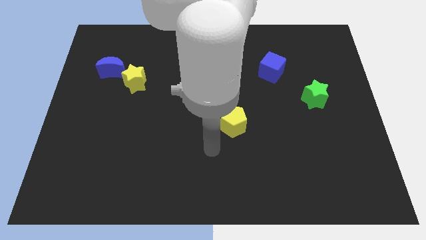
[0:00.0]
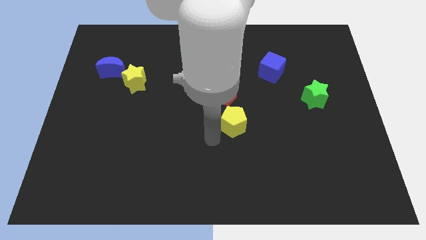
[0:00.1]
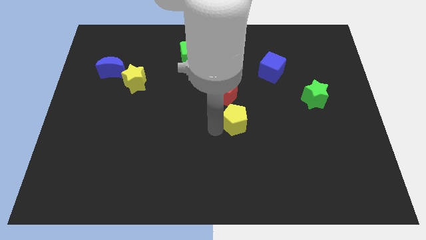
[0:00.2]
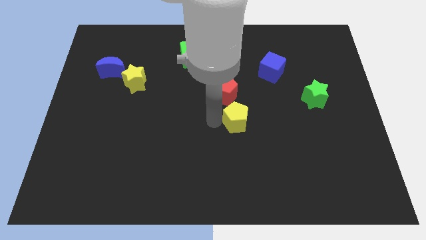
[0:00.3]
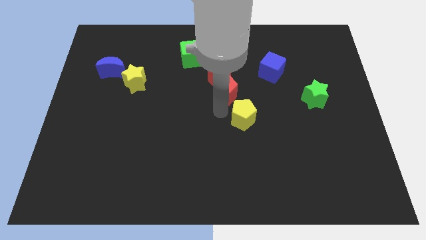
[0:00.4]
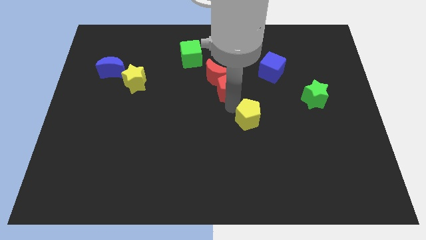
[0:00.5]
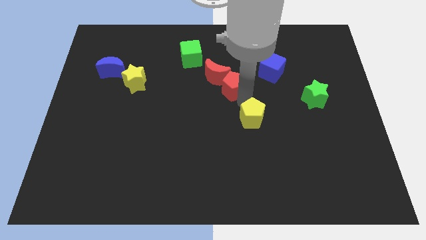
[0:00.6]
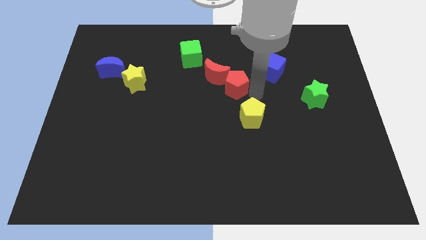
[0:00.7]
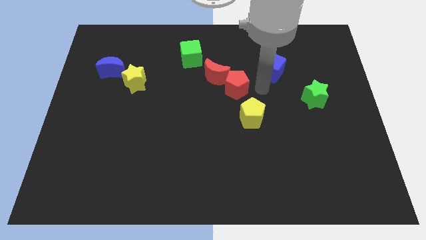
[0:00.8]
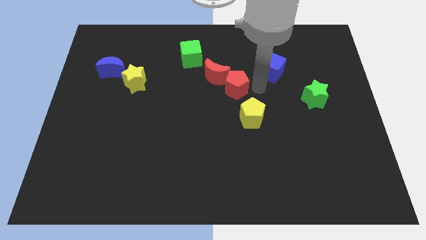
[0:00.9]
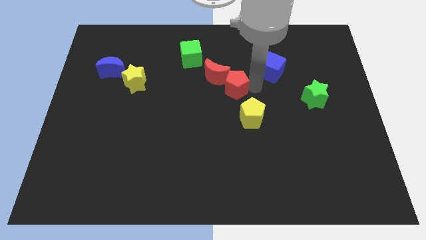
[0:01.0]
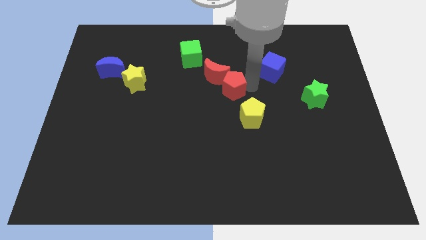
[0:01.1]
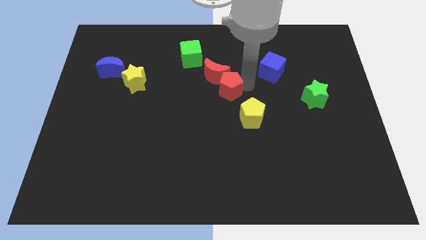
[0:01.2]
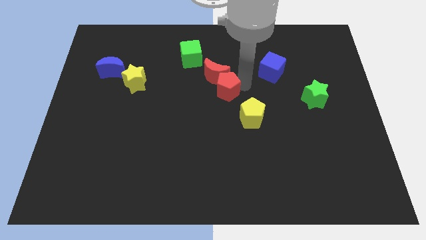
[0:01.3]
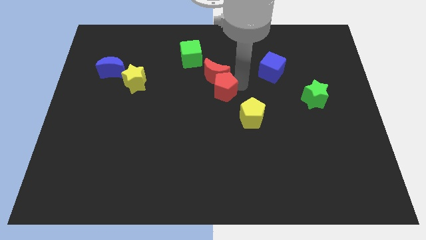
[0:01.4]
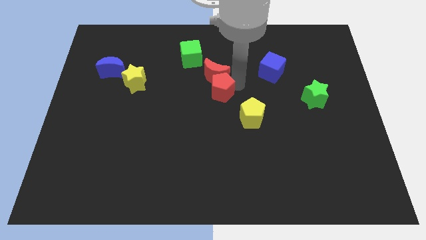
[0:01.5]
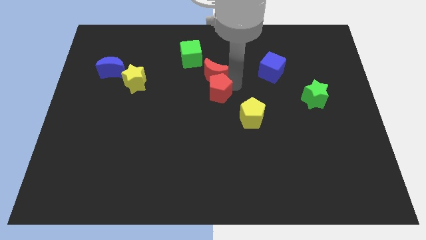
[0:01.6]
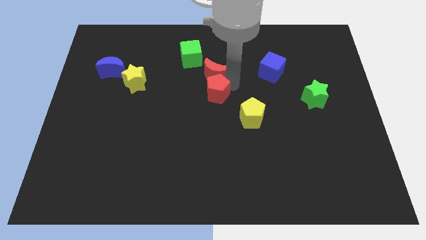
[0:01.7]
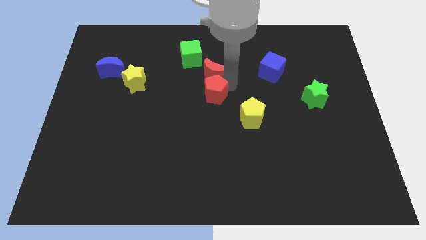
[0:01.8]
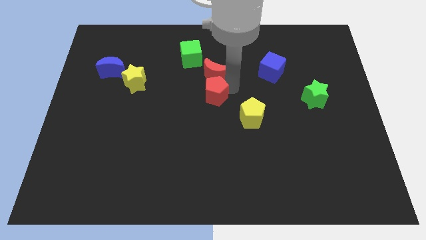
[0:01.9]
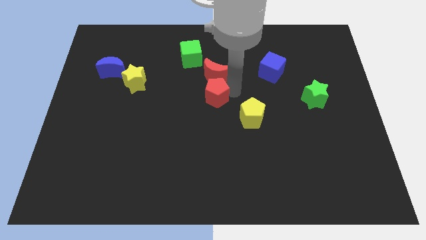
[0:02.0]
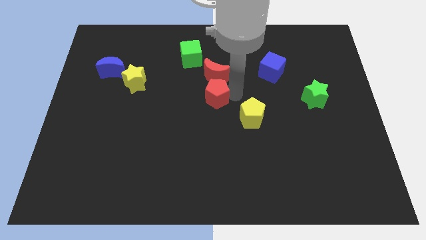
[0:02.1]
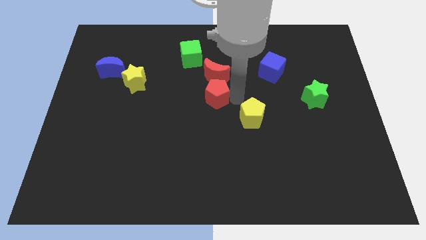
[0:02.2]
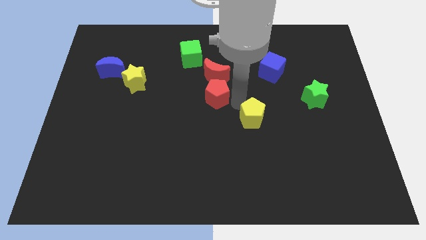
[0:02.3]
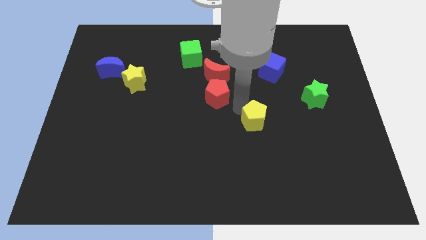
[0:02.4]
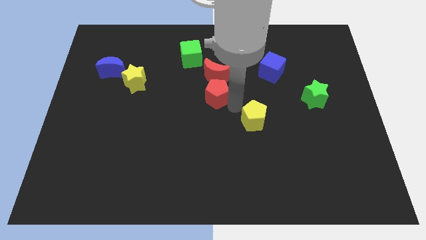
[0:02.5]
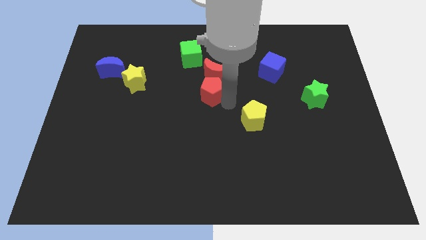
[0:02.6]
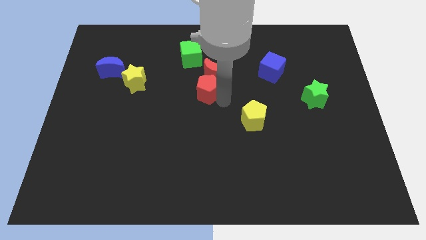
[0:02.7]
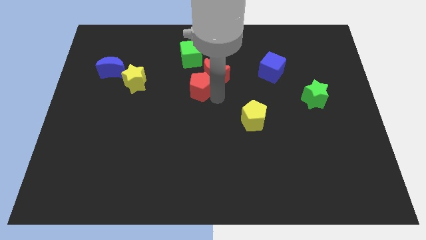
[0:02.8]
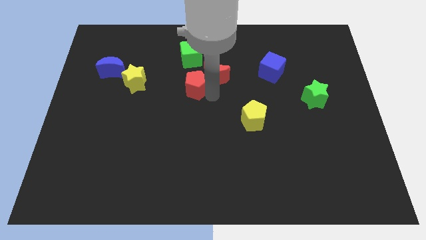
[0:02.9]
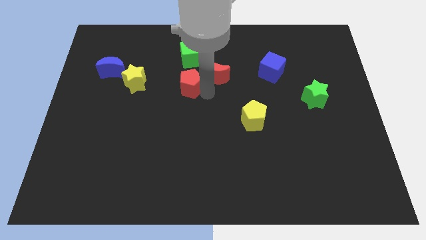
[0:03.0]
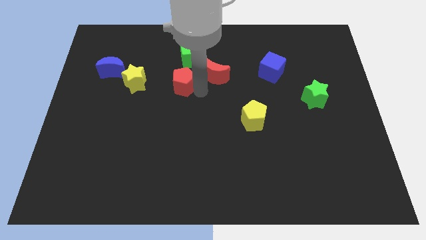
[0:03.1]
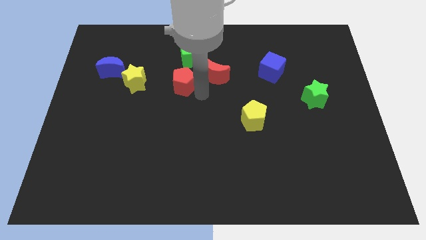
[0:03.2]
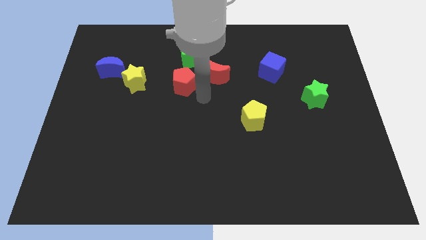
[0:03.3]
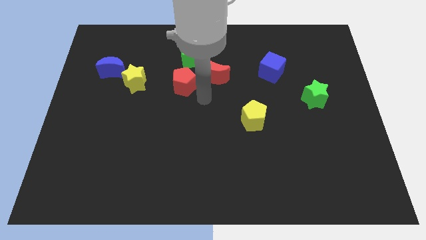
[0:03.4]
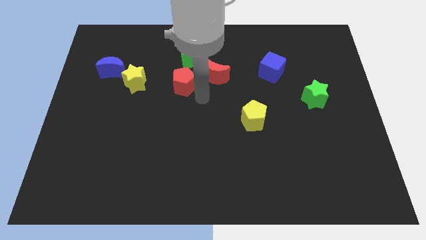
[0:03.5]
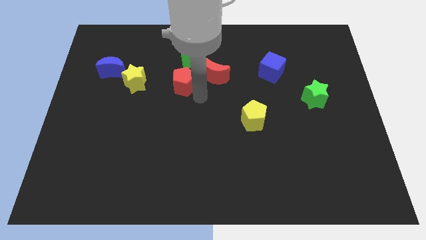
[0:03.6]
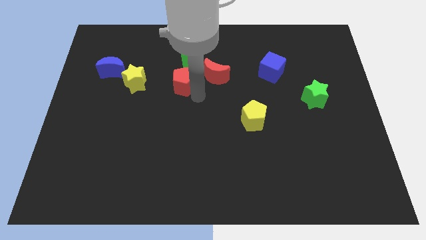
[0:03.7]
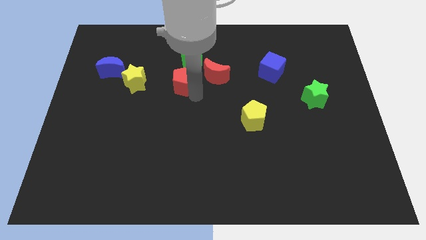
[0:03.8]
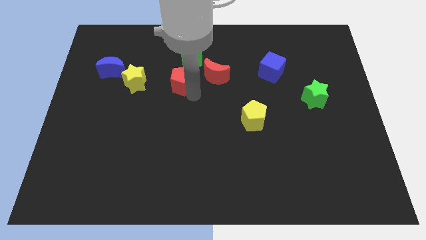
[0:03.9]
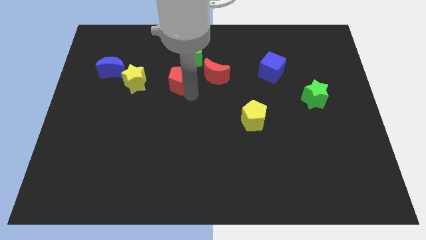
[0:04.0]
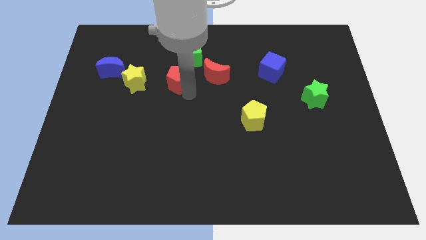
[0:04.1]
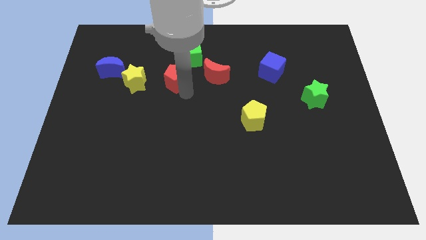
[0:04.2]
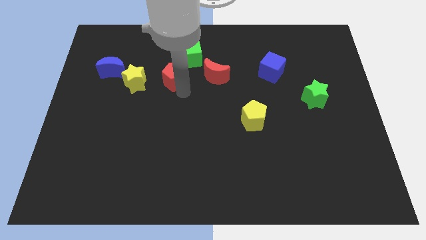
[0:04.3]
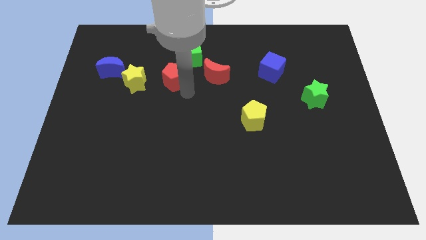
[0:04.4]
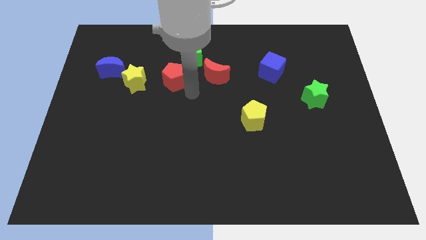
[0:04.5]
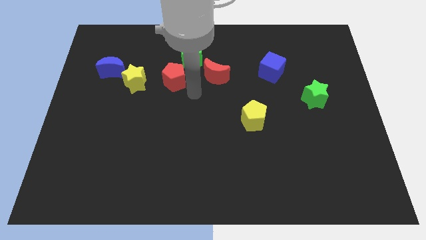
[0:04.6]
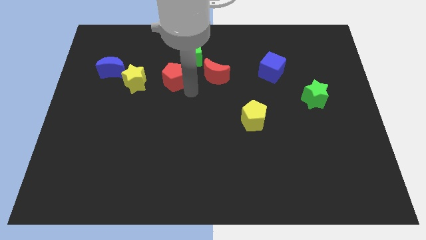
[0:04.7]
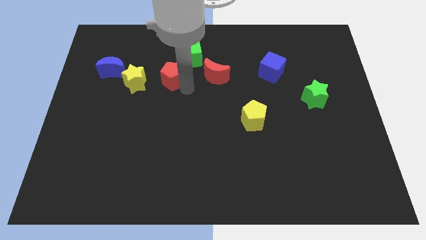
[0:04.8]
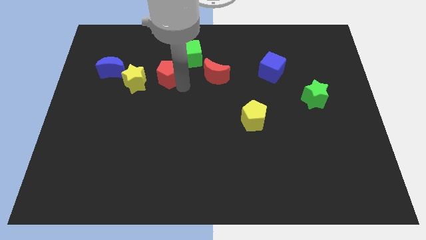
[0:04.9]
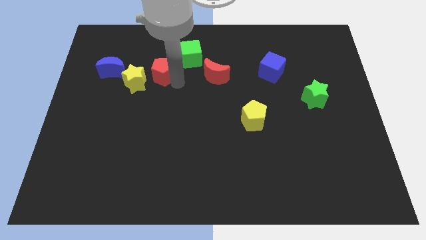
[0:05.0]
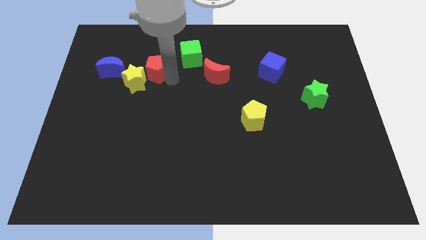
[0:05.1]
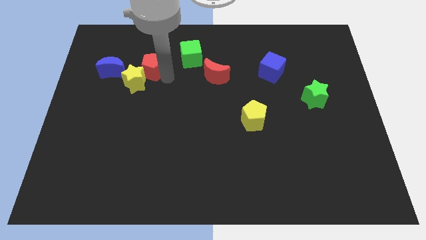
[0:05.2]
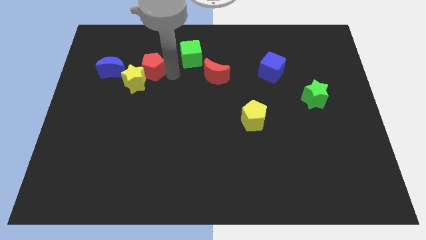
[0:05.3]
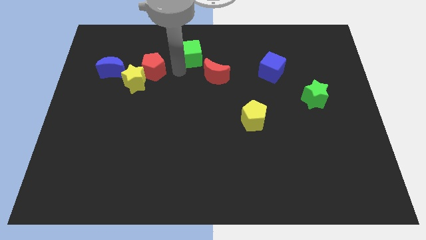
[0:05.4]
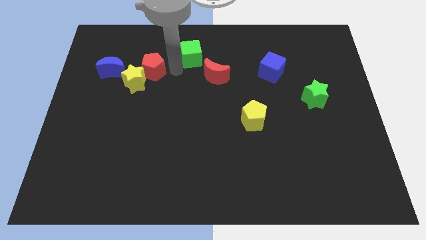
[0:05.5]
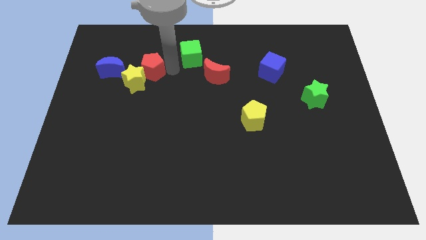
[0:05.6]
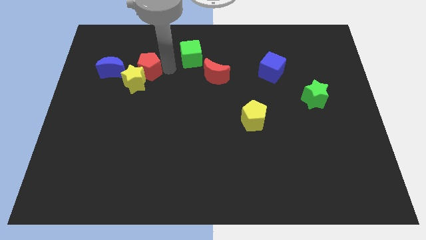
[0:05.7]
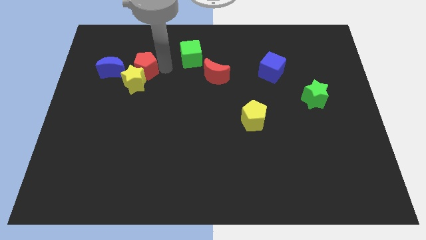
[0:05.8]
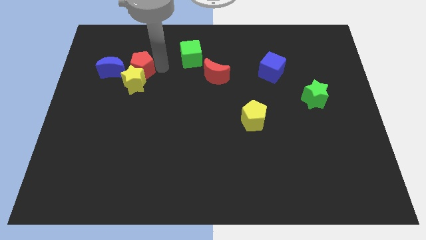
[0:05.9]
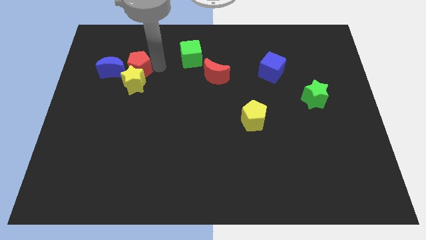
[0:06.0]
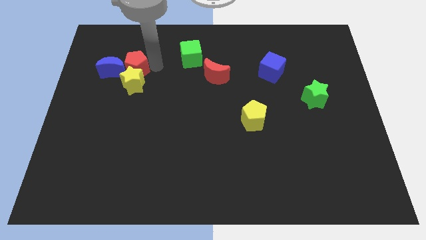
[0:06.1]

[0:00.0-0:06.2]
push the red pentagon close to the blue moon

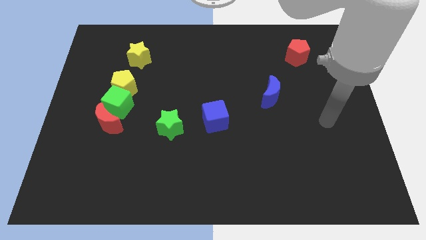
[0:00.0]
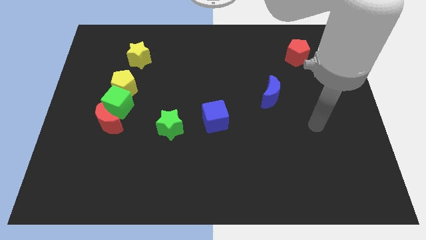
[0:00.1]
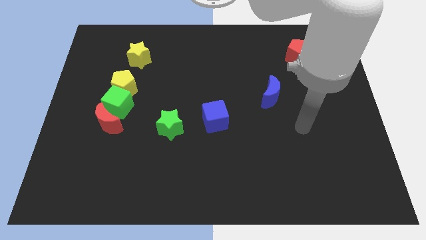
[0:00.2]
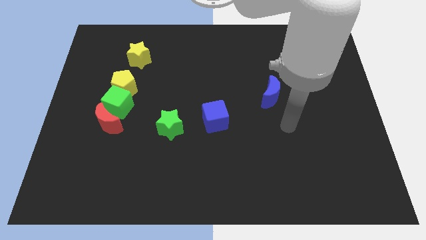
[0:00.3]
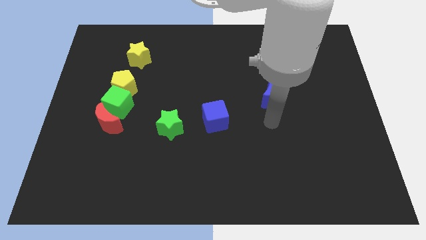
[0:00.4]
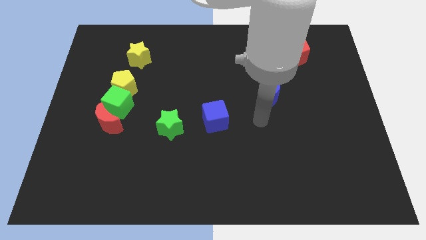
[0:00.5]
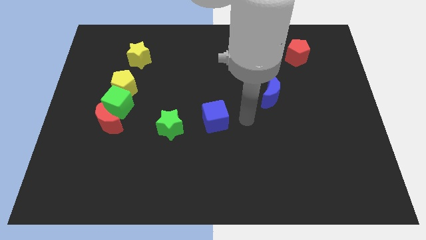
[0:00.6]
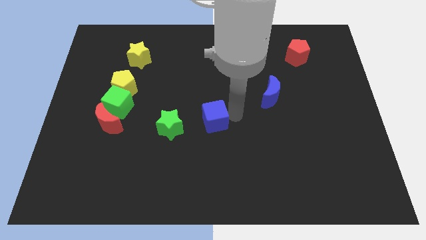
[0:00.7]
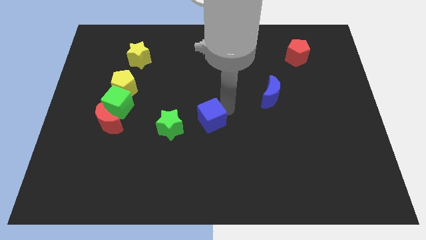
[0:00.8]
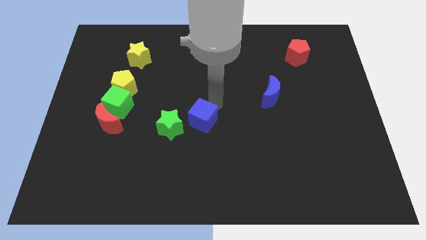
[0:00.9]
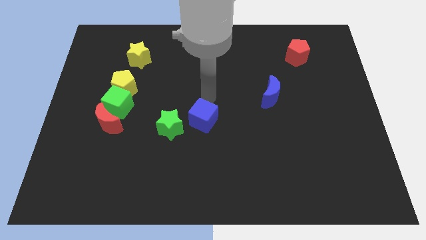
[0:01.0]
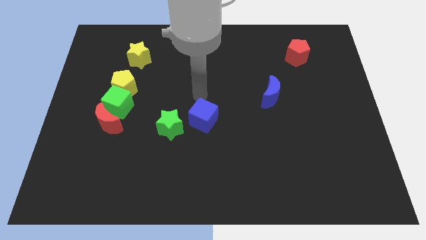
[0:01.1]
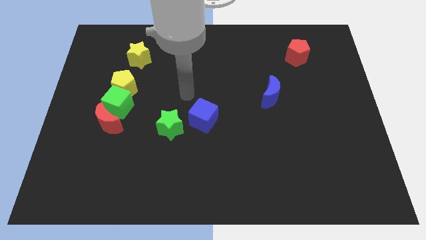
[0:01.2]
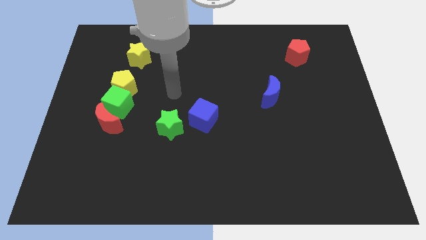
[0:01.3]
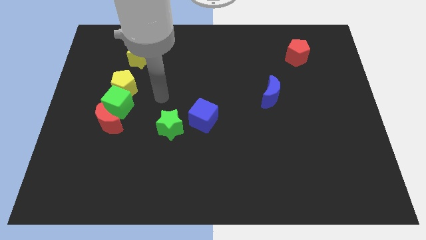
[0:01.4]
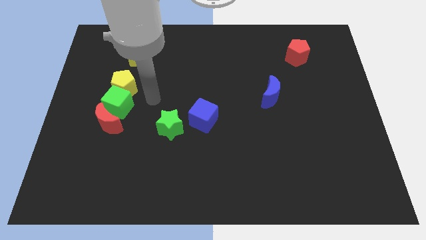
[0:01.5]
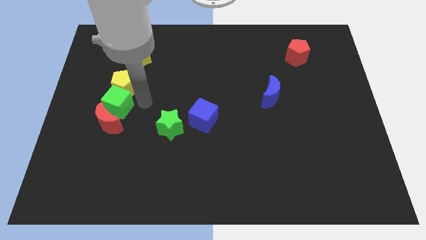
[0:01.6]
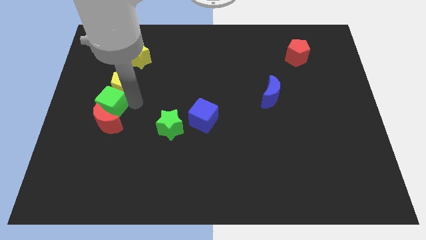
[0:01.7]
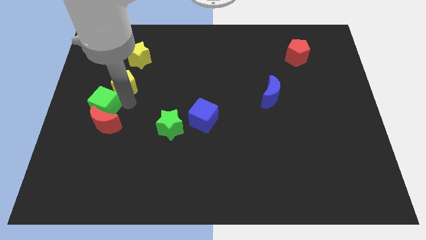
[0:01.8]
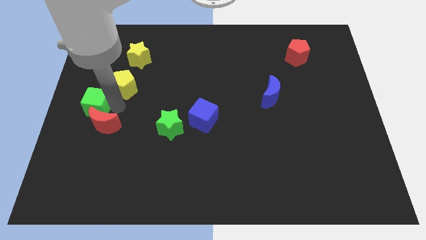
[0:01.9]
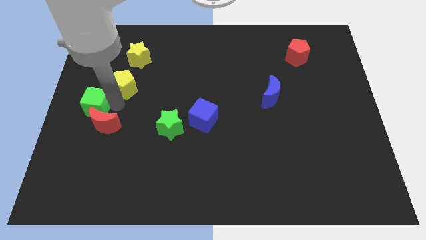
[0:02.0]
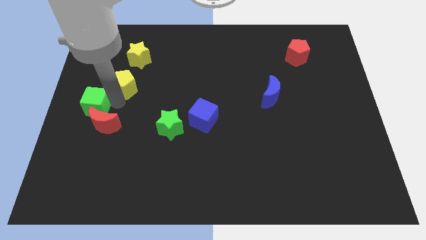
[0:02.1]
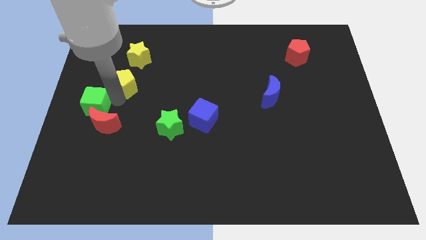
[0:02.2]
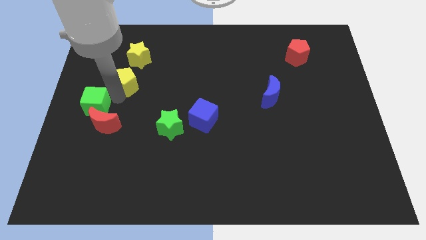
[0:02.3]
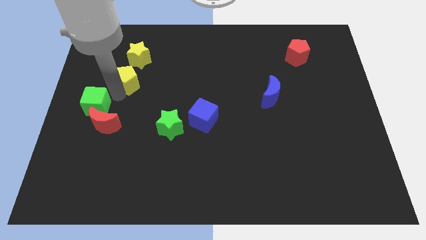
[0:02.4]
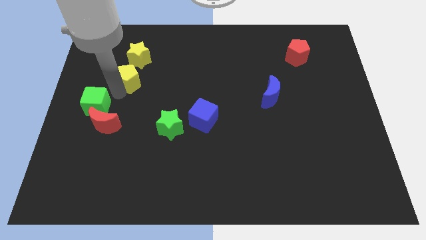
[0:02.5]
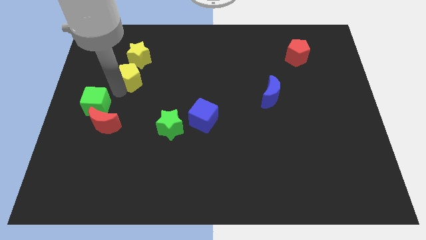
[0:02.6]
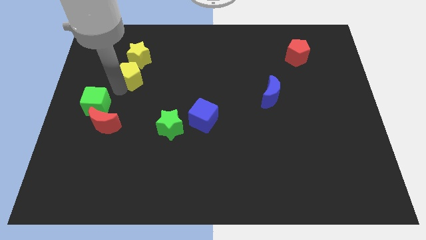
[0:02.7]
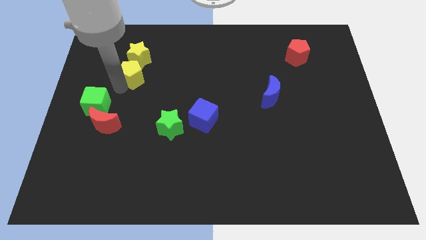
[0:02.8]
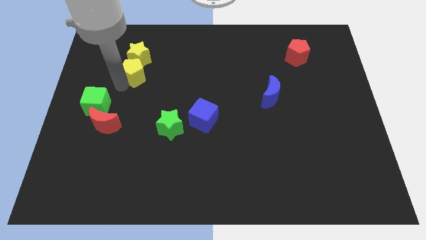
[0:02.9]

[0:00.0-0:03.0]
put the yellow pentagon close to the yellow star
